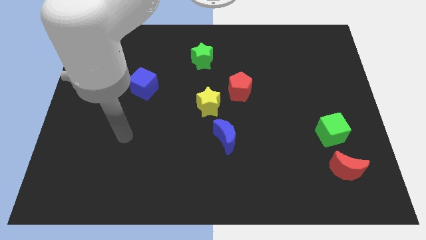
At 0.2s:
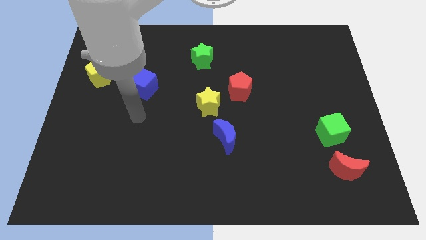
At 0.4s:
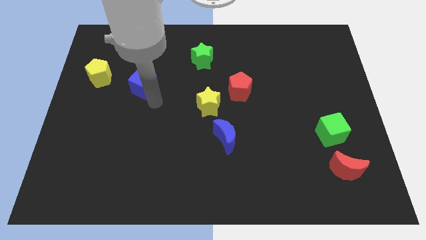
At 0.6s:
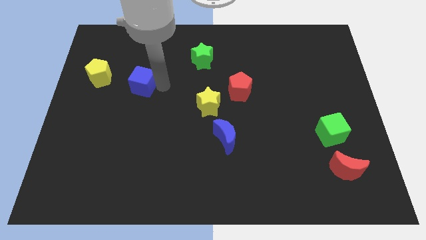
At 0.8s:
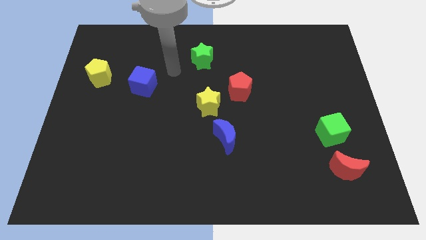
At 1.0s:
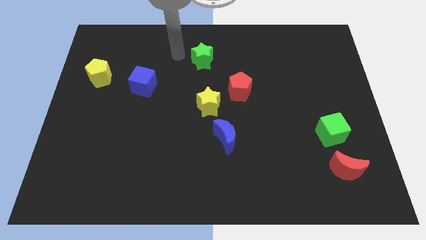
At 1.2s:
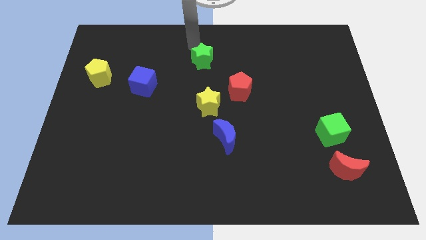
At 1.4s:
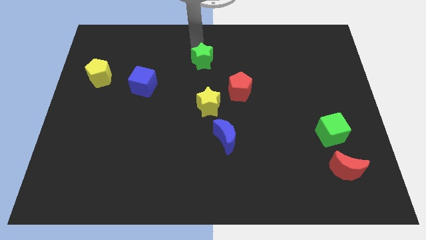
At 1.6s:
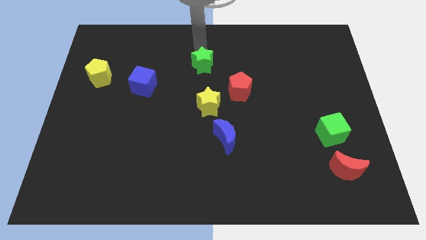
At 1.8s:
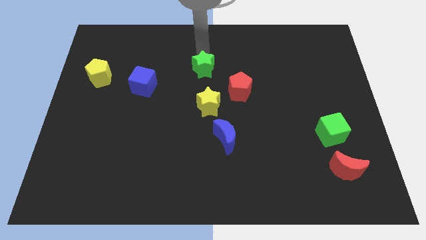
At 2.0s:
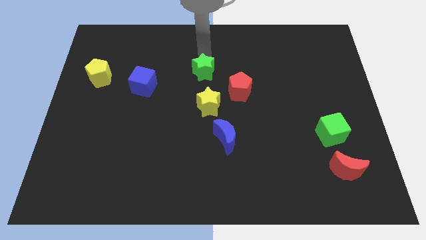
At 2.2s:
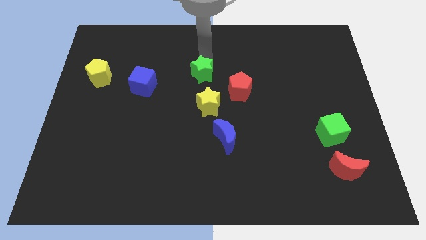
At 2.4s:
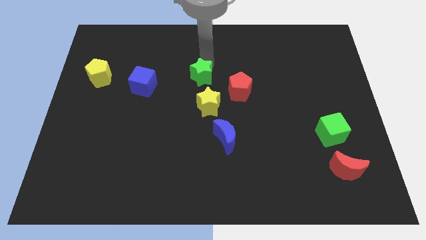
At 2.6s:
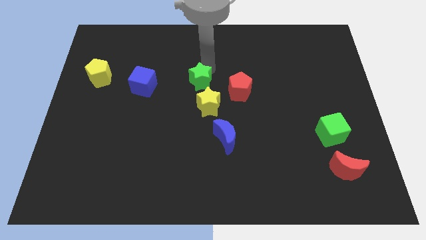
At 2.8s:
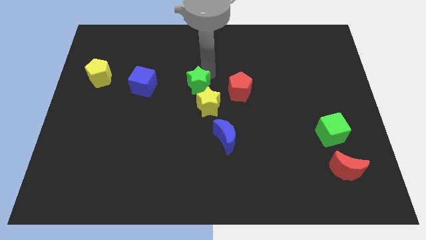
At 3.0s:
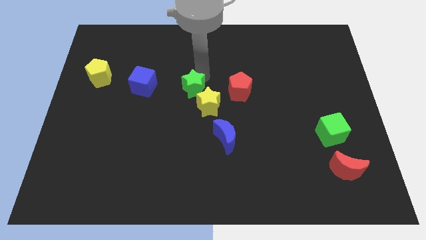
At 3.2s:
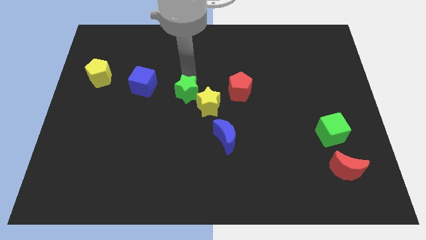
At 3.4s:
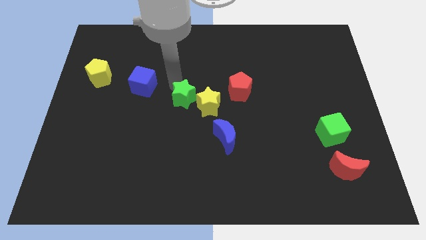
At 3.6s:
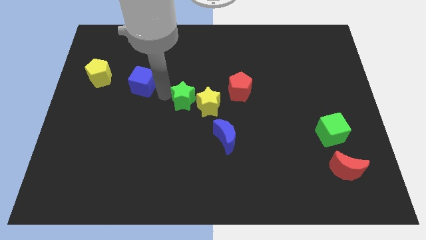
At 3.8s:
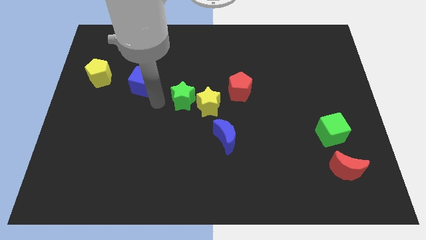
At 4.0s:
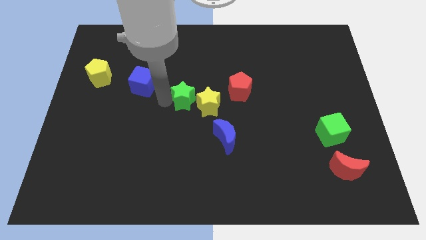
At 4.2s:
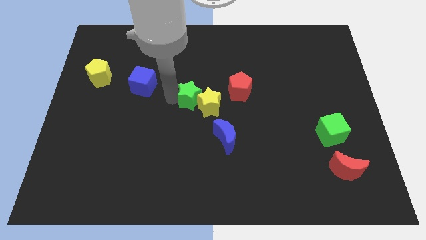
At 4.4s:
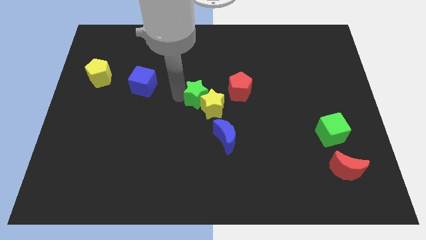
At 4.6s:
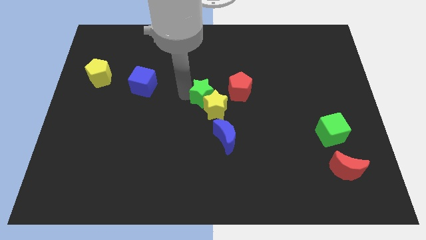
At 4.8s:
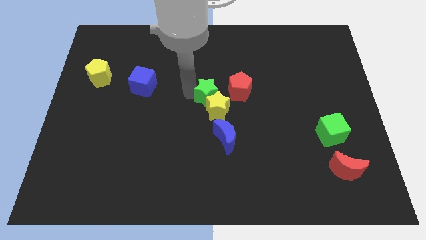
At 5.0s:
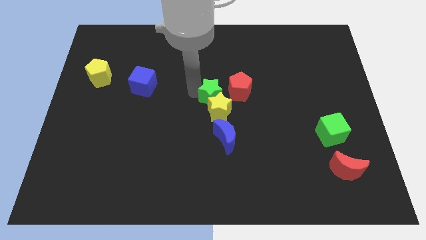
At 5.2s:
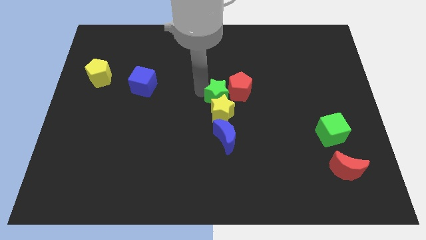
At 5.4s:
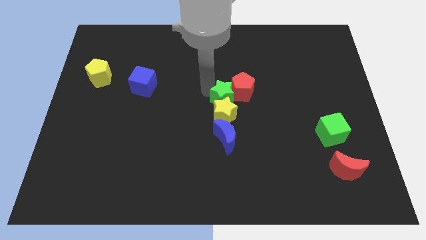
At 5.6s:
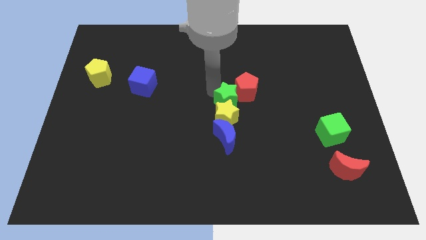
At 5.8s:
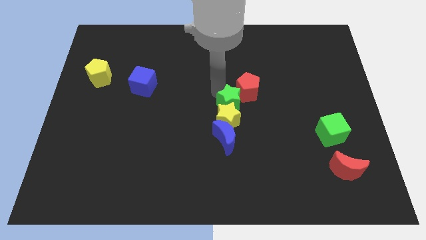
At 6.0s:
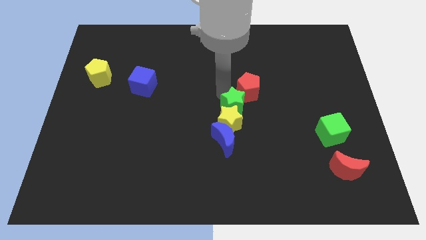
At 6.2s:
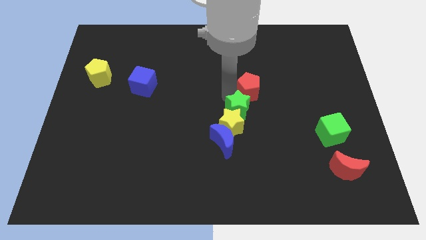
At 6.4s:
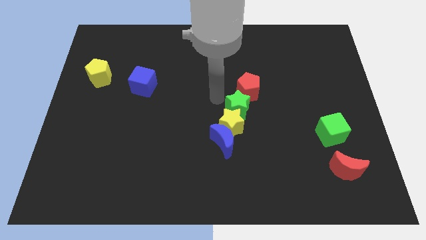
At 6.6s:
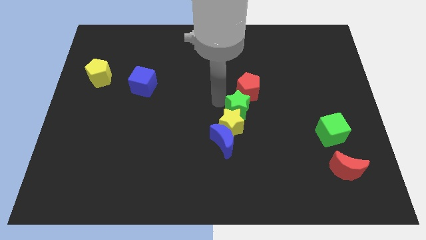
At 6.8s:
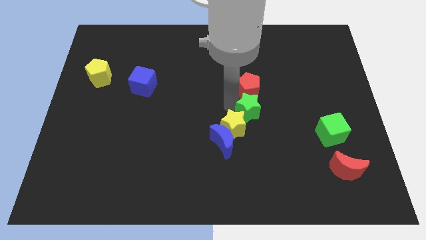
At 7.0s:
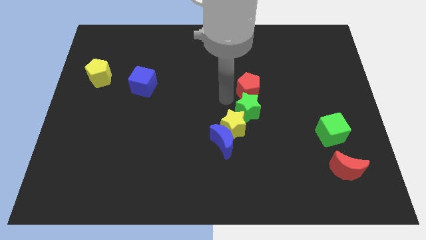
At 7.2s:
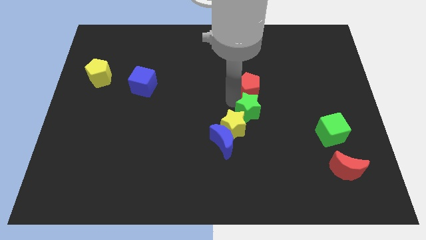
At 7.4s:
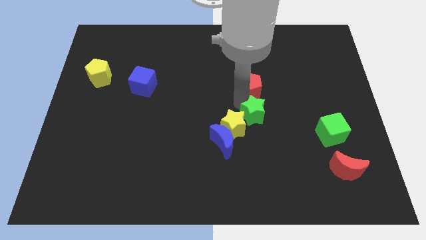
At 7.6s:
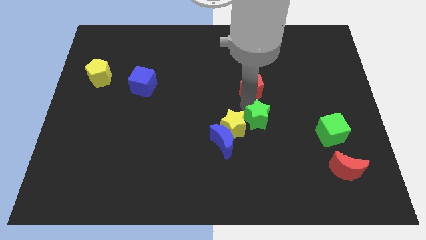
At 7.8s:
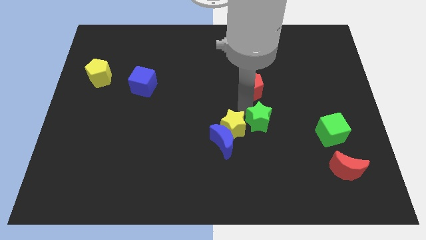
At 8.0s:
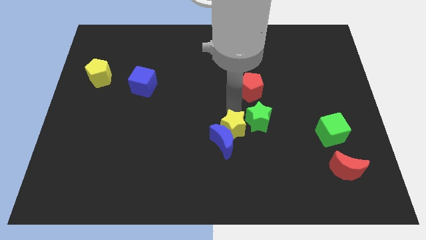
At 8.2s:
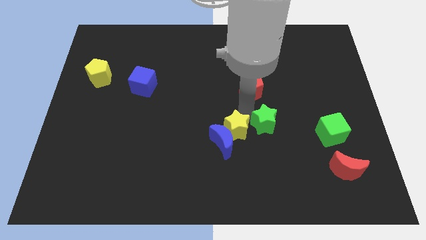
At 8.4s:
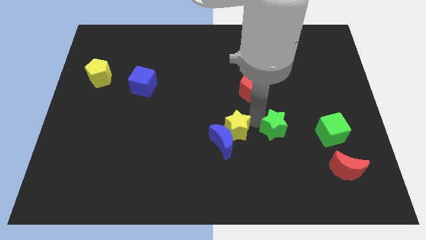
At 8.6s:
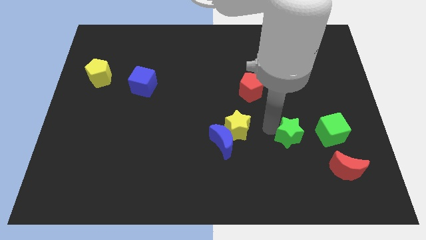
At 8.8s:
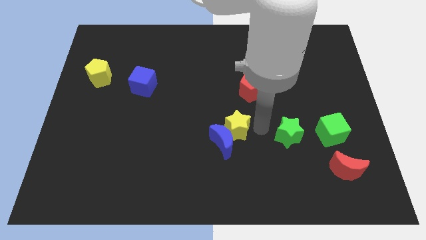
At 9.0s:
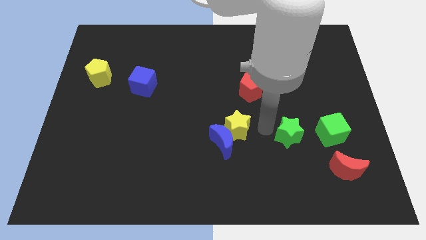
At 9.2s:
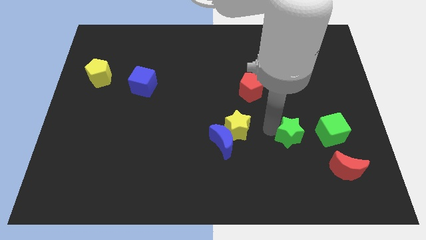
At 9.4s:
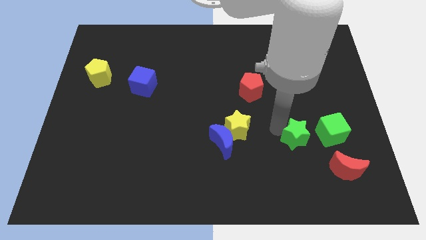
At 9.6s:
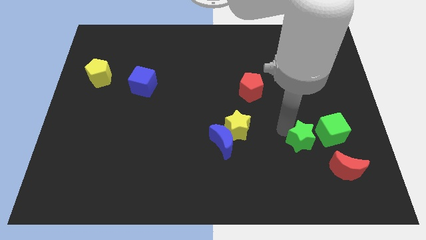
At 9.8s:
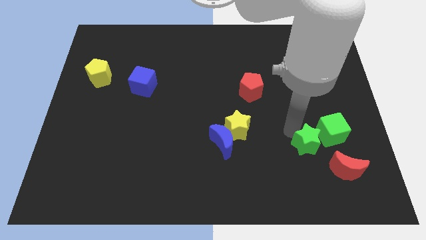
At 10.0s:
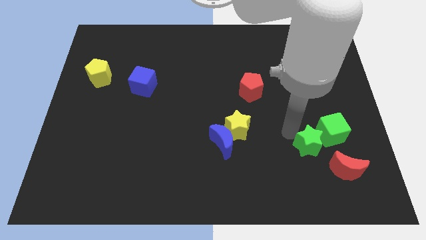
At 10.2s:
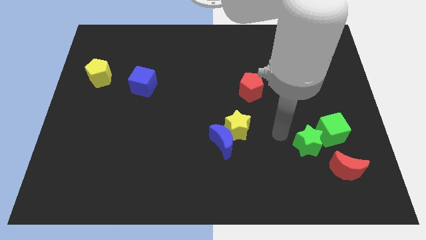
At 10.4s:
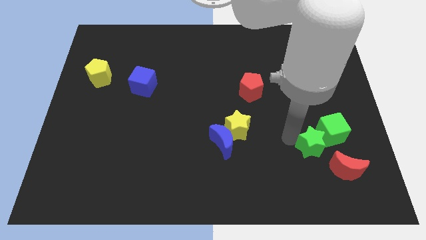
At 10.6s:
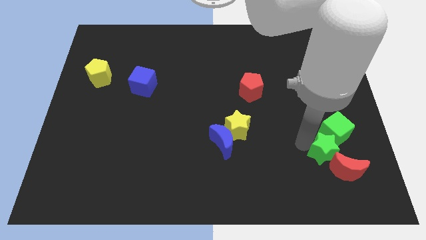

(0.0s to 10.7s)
put the green star next to the red moon

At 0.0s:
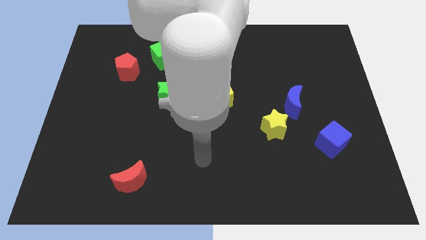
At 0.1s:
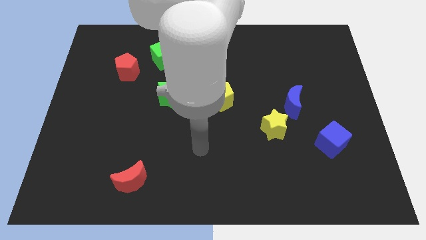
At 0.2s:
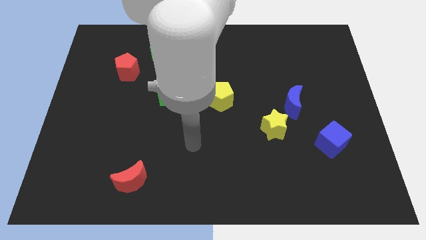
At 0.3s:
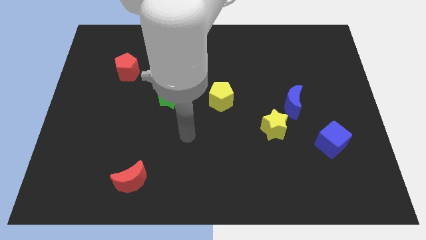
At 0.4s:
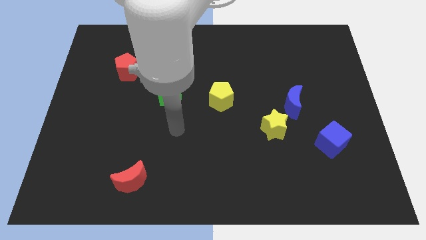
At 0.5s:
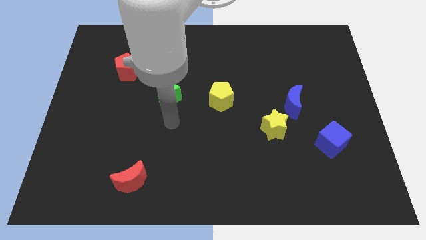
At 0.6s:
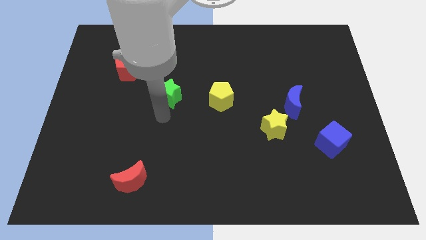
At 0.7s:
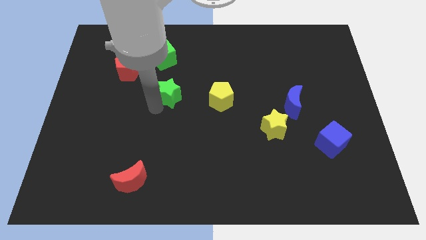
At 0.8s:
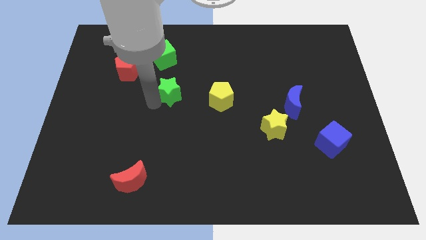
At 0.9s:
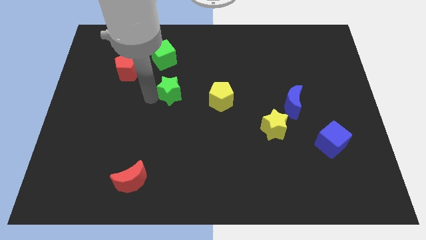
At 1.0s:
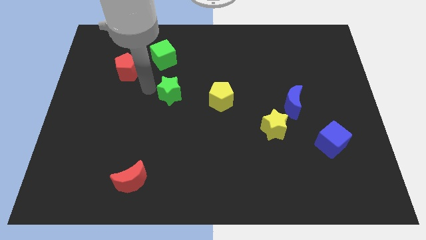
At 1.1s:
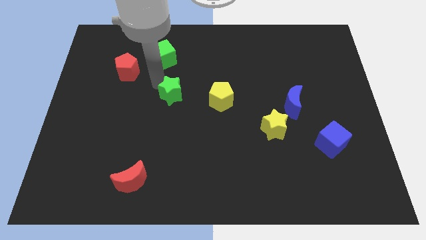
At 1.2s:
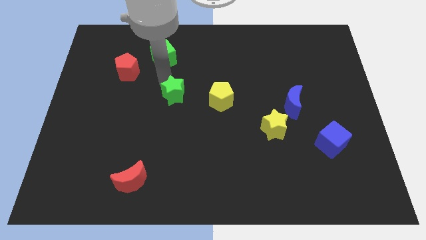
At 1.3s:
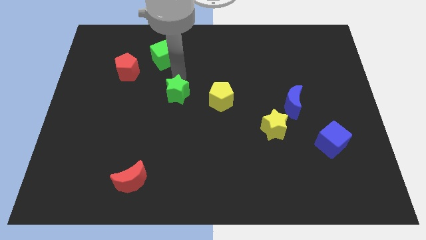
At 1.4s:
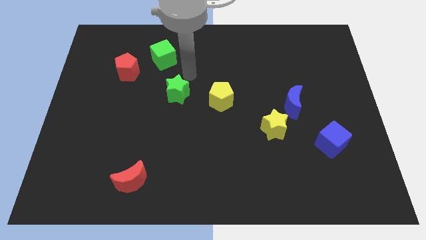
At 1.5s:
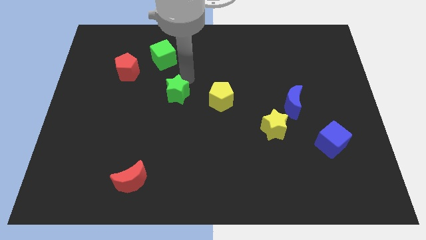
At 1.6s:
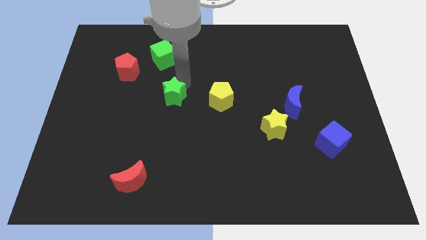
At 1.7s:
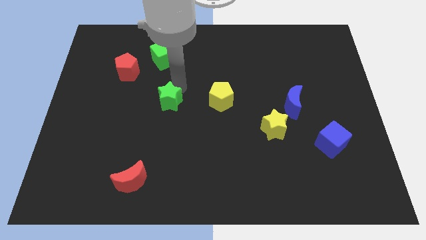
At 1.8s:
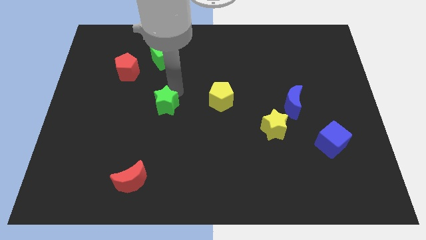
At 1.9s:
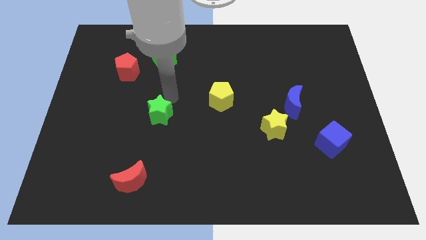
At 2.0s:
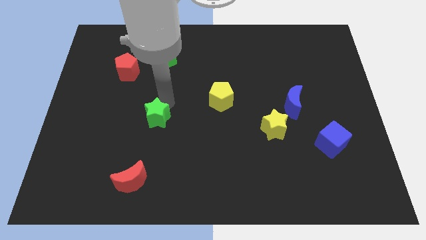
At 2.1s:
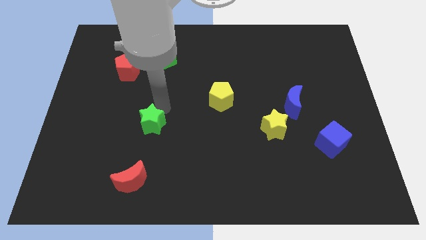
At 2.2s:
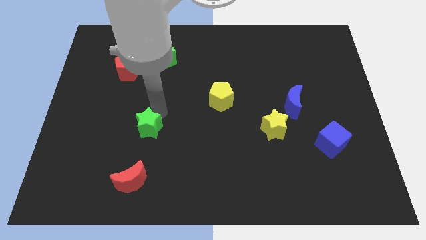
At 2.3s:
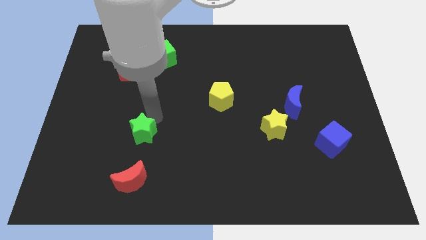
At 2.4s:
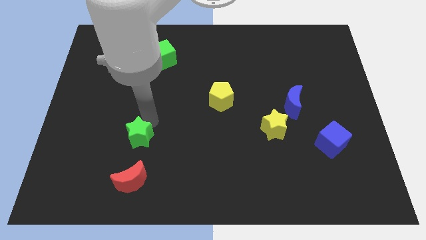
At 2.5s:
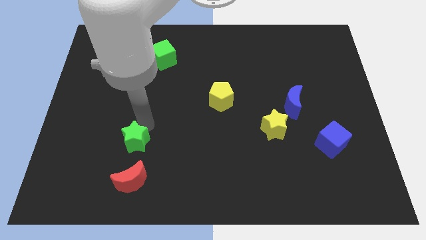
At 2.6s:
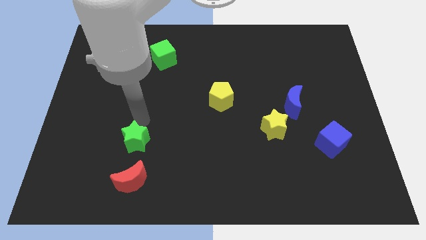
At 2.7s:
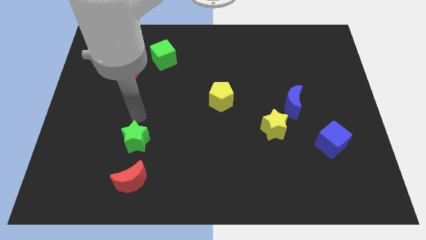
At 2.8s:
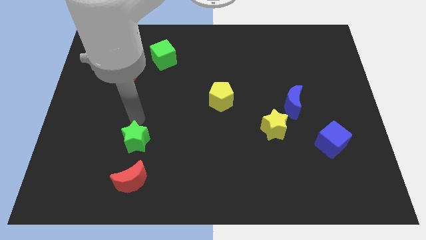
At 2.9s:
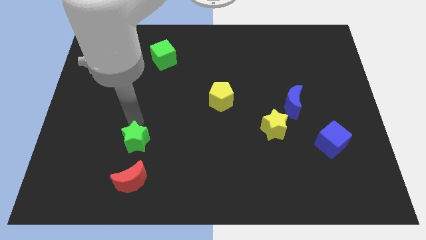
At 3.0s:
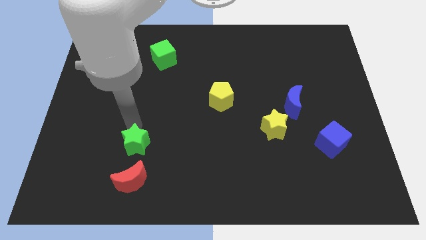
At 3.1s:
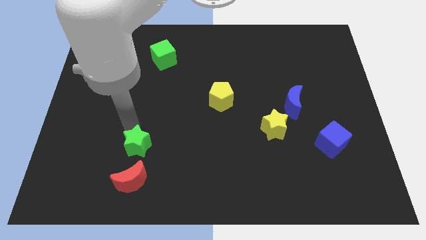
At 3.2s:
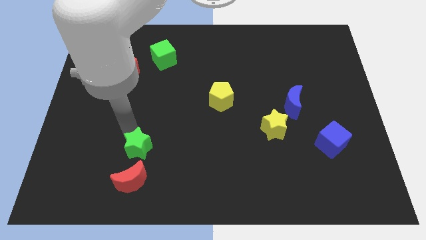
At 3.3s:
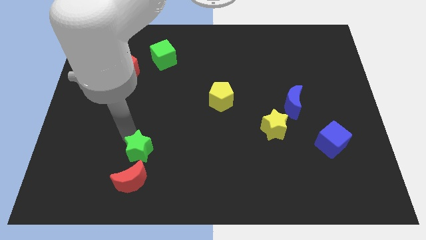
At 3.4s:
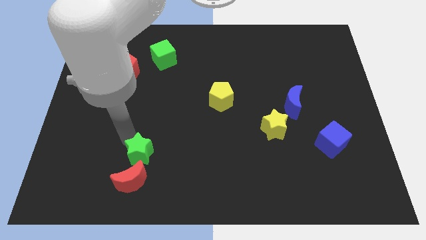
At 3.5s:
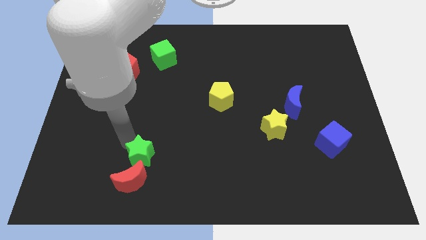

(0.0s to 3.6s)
put the green star to the red moon
